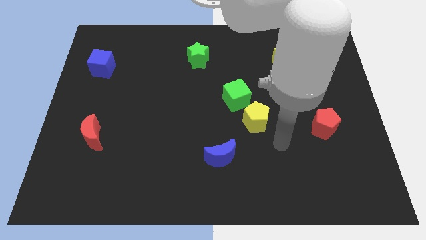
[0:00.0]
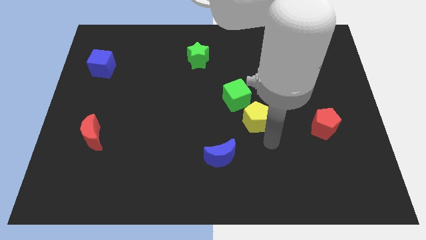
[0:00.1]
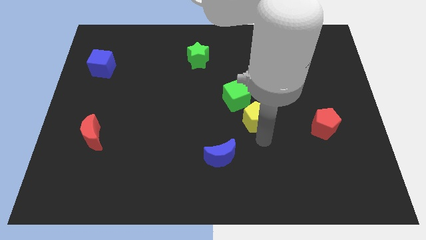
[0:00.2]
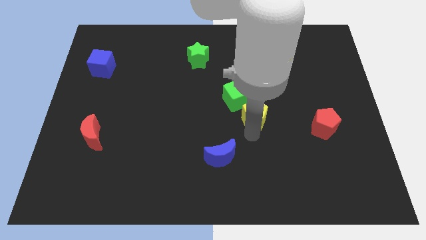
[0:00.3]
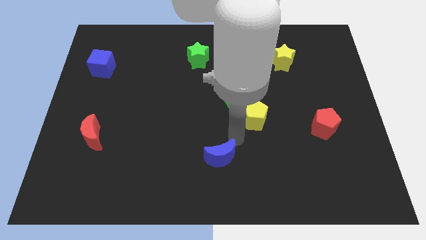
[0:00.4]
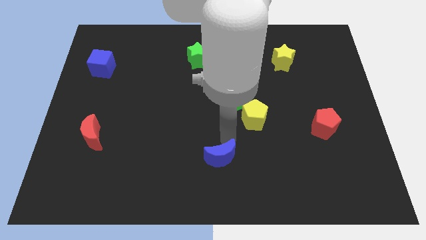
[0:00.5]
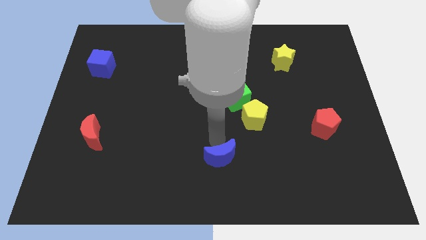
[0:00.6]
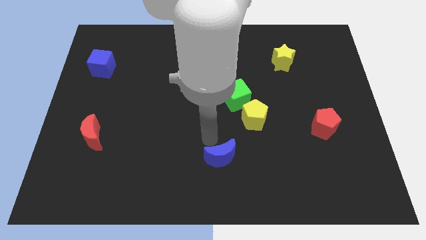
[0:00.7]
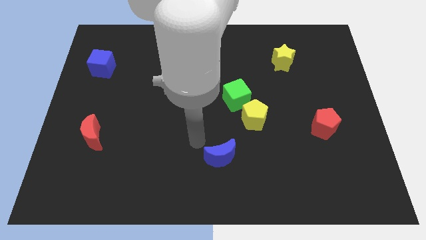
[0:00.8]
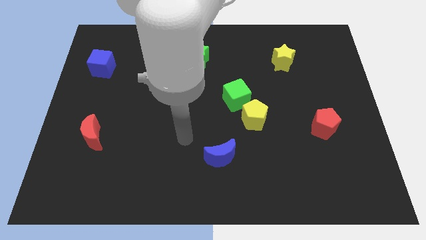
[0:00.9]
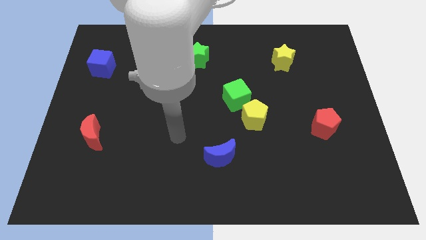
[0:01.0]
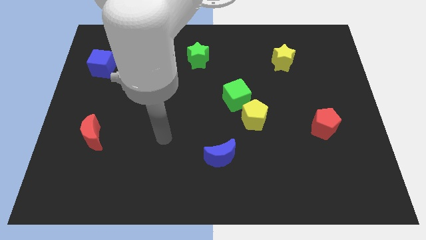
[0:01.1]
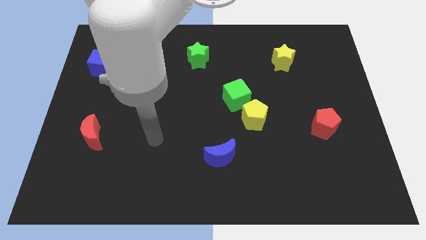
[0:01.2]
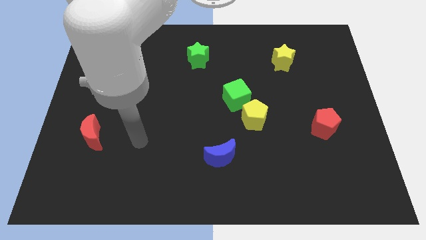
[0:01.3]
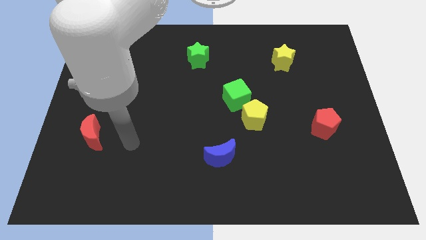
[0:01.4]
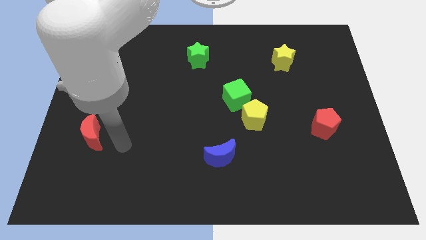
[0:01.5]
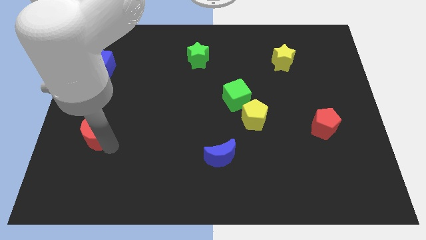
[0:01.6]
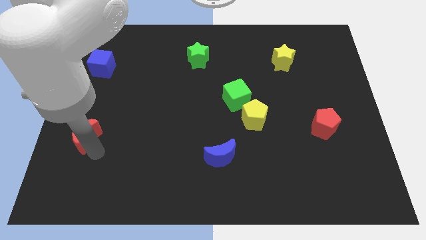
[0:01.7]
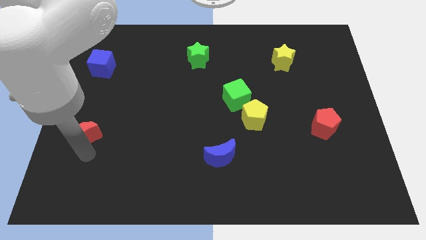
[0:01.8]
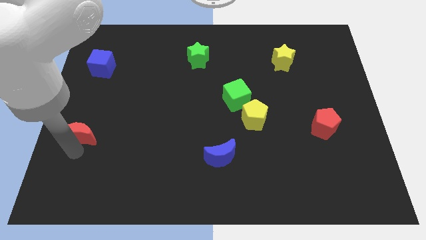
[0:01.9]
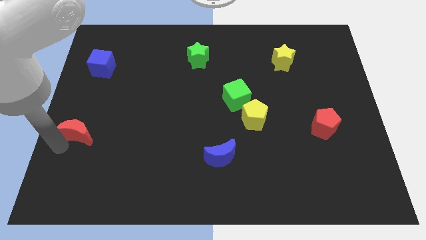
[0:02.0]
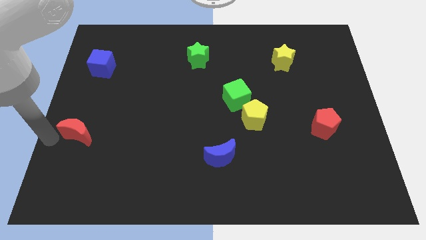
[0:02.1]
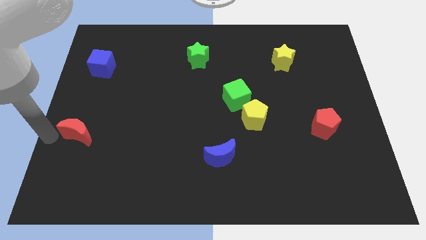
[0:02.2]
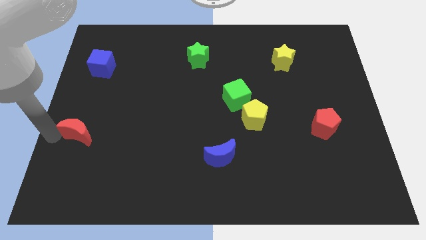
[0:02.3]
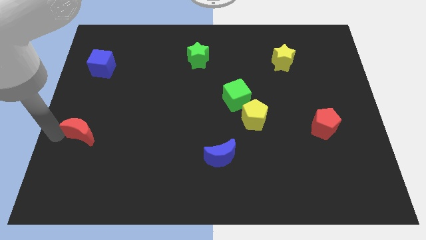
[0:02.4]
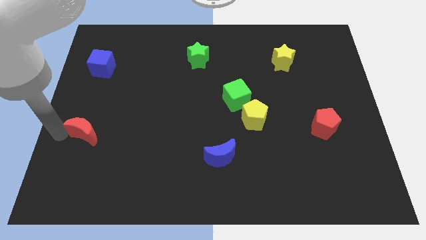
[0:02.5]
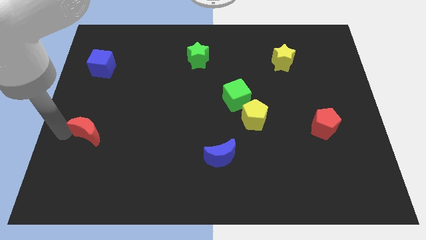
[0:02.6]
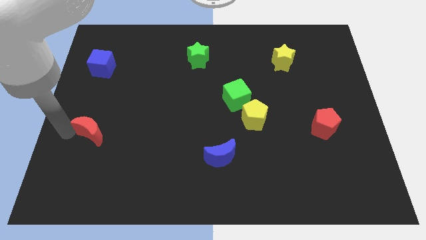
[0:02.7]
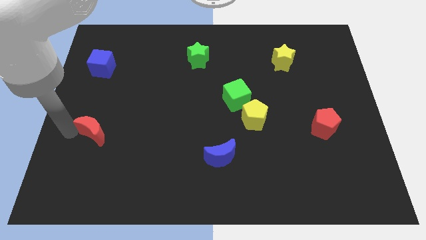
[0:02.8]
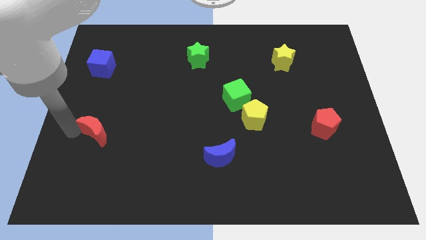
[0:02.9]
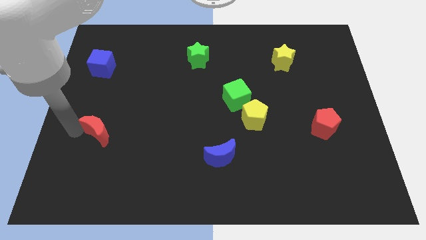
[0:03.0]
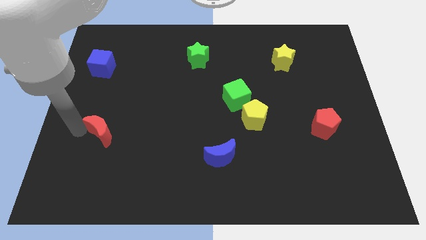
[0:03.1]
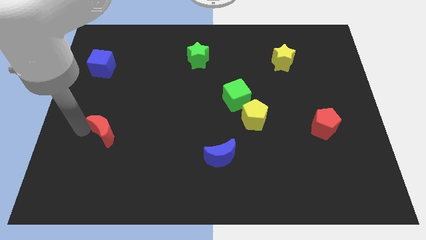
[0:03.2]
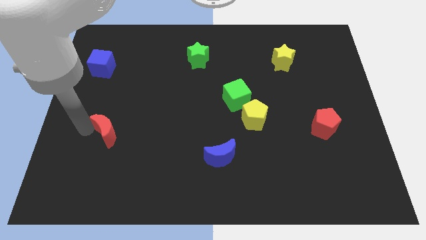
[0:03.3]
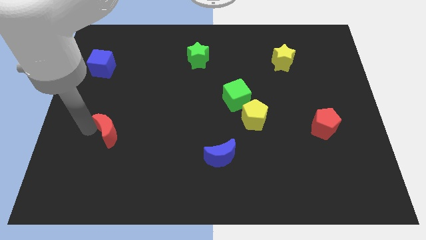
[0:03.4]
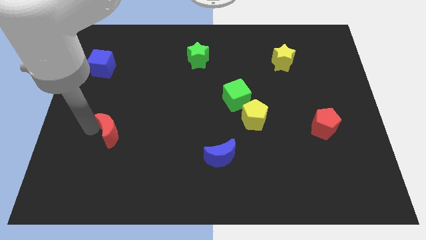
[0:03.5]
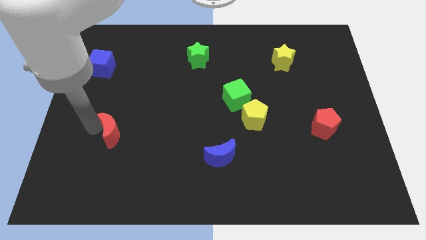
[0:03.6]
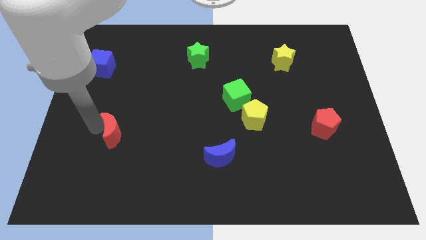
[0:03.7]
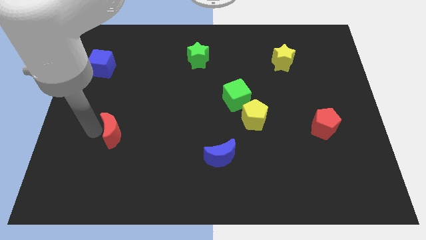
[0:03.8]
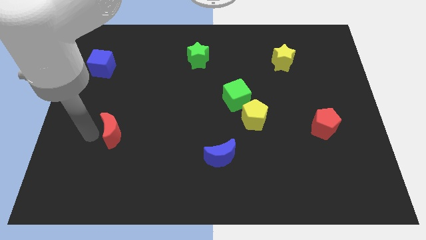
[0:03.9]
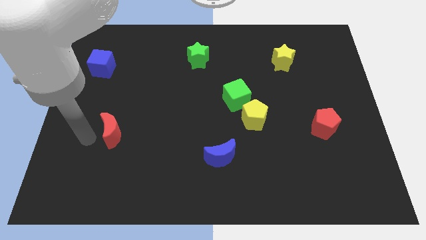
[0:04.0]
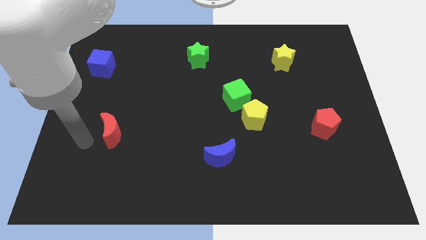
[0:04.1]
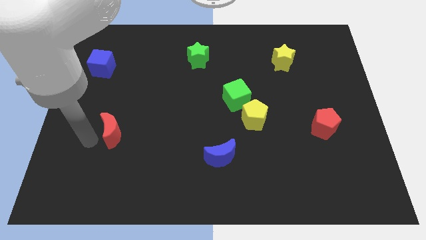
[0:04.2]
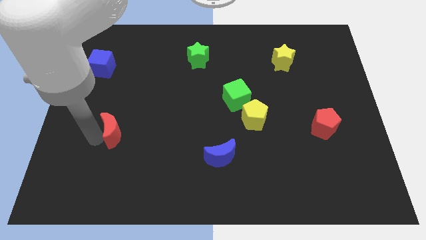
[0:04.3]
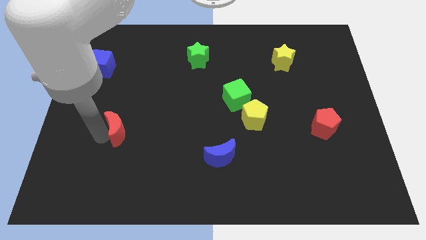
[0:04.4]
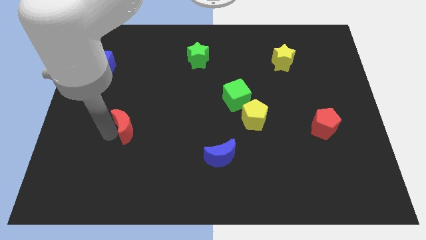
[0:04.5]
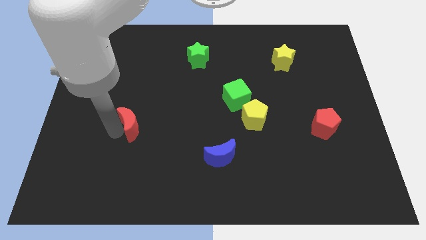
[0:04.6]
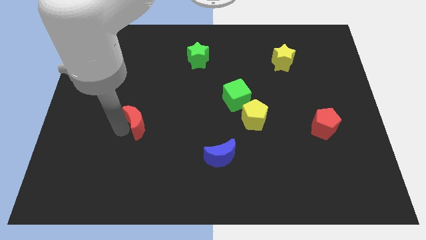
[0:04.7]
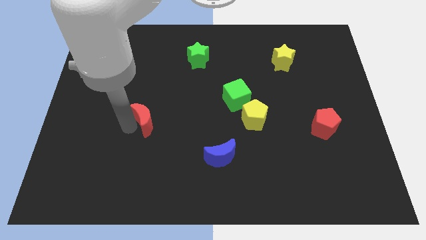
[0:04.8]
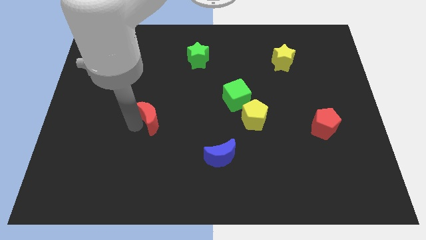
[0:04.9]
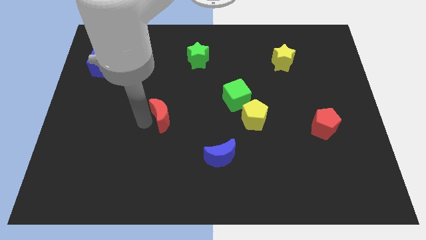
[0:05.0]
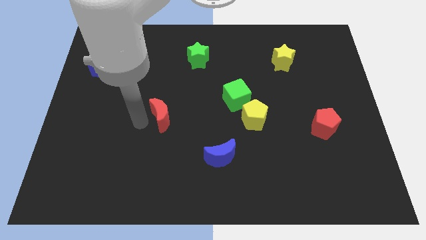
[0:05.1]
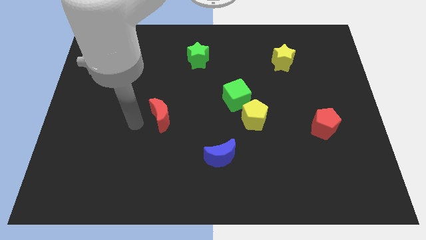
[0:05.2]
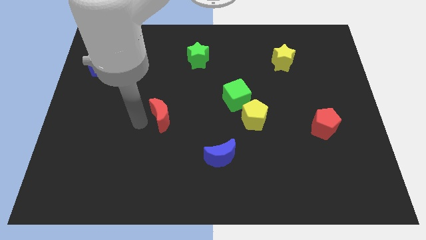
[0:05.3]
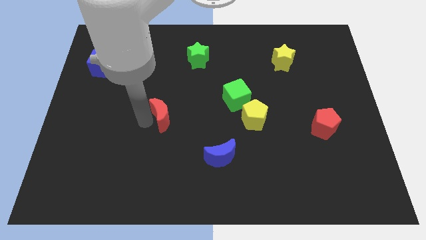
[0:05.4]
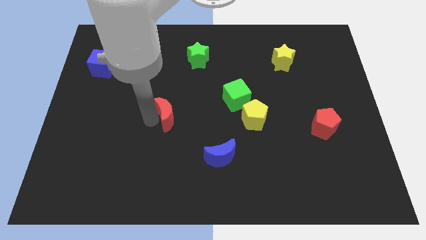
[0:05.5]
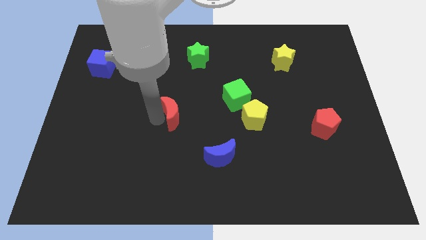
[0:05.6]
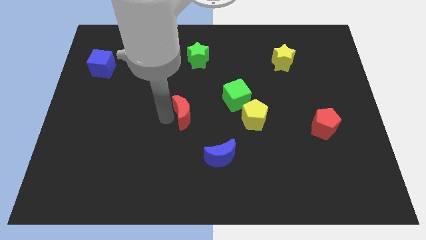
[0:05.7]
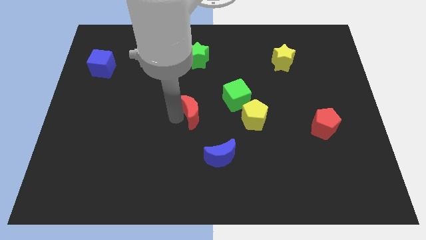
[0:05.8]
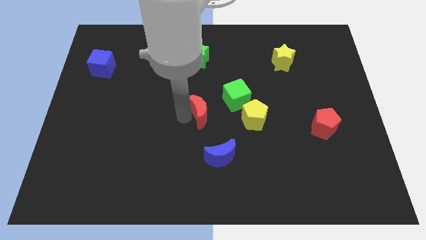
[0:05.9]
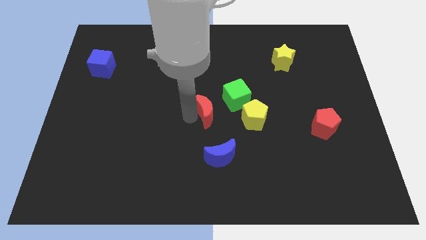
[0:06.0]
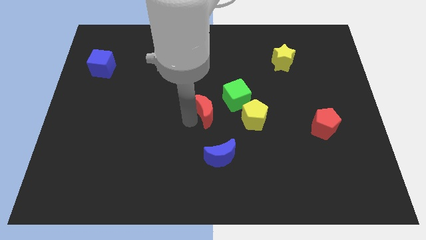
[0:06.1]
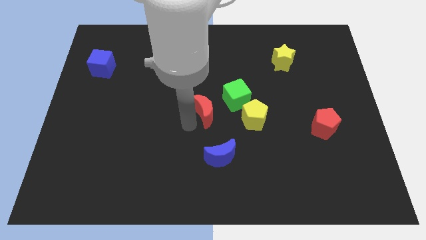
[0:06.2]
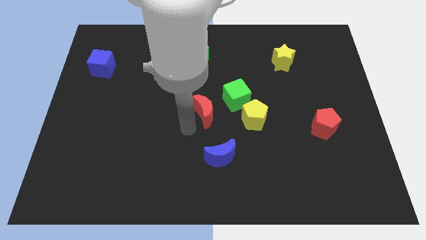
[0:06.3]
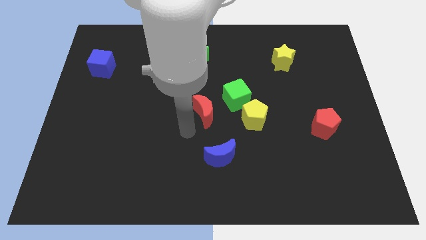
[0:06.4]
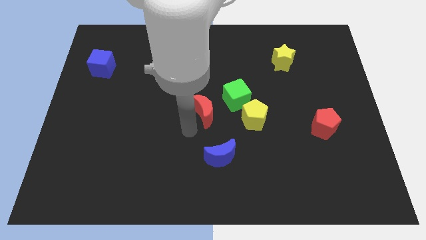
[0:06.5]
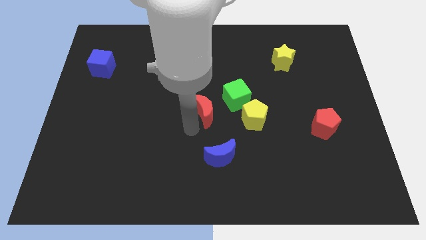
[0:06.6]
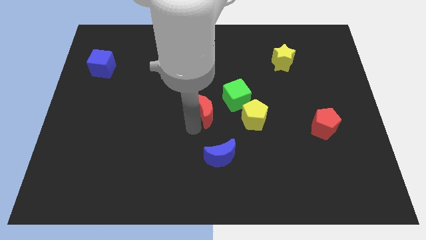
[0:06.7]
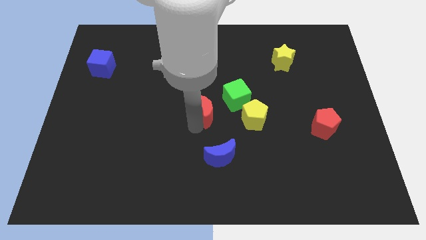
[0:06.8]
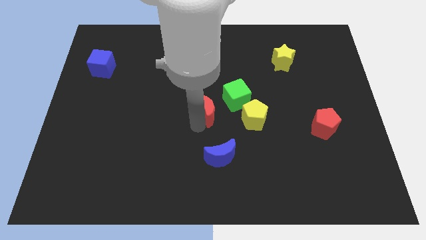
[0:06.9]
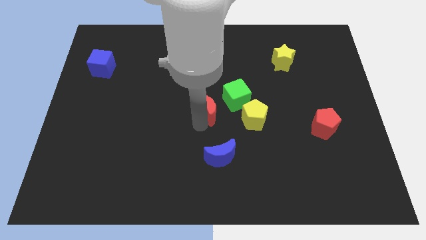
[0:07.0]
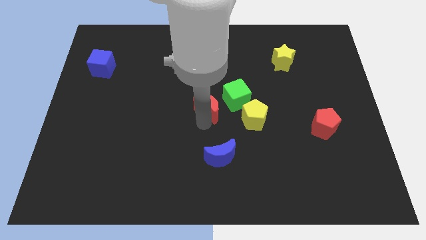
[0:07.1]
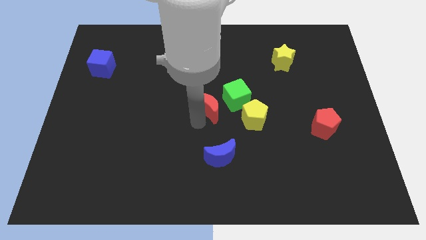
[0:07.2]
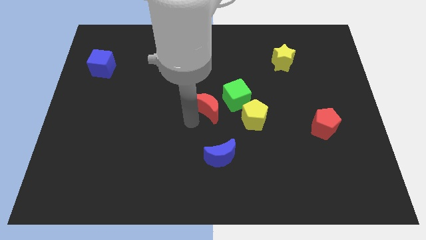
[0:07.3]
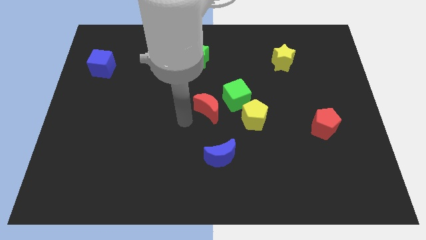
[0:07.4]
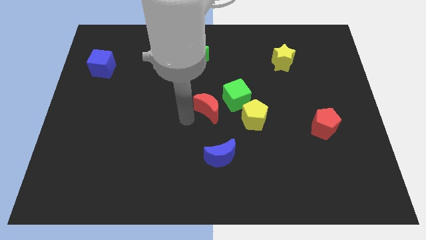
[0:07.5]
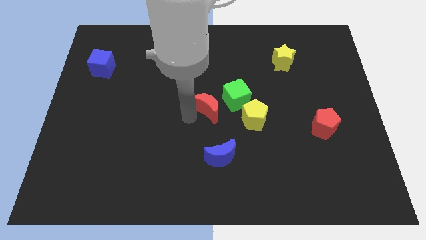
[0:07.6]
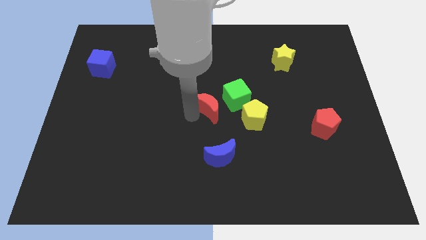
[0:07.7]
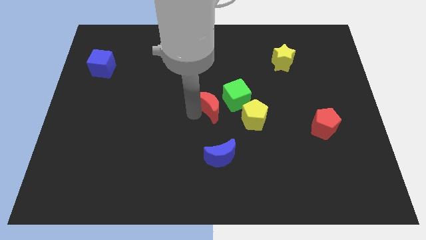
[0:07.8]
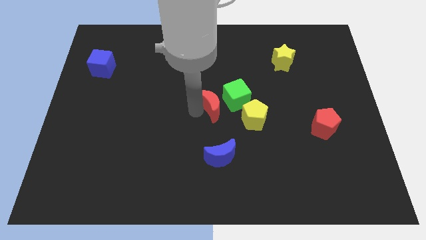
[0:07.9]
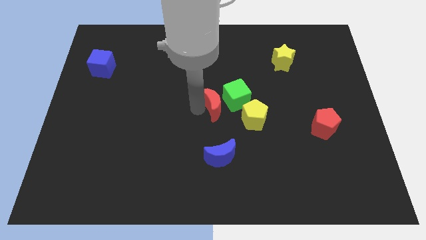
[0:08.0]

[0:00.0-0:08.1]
push the red moon next to the green cube
